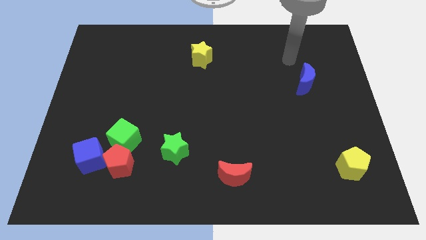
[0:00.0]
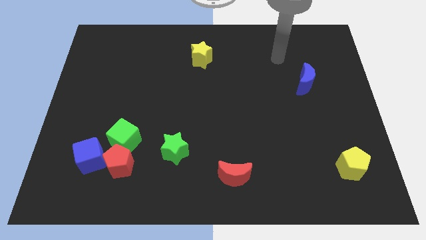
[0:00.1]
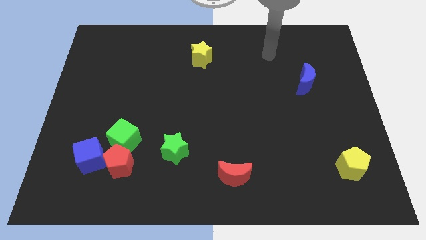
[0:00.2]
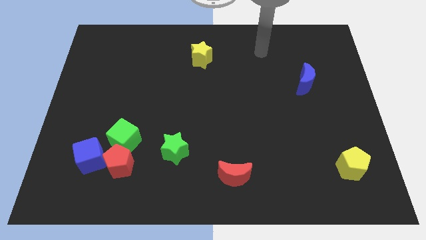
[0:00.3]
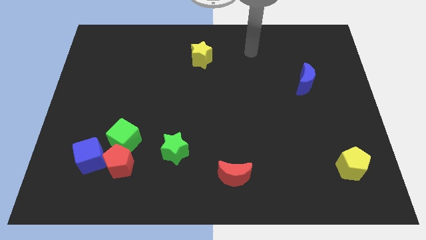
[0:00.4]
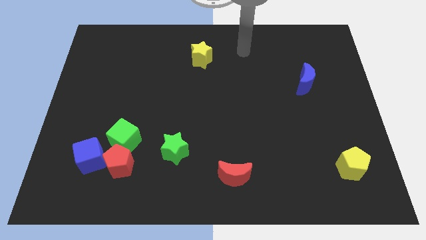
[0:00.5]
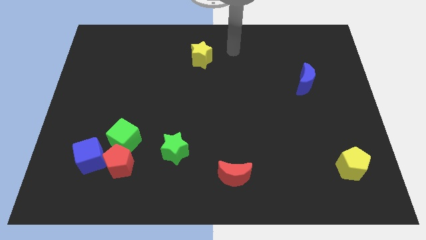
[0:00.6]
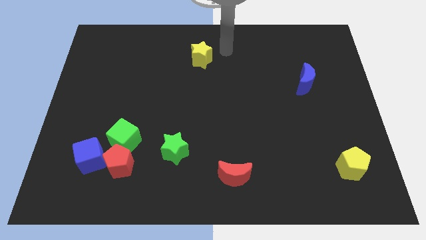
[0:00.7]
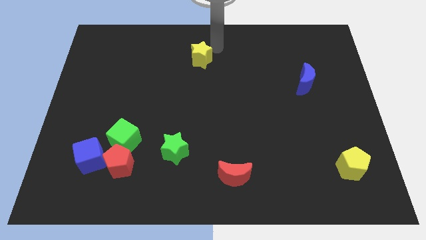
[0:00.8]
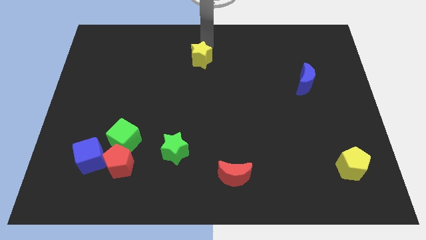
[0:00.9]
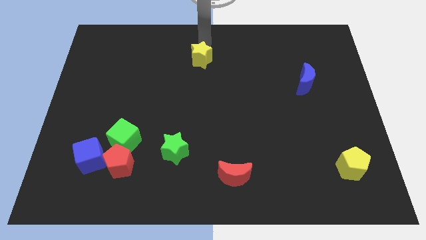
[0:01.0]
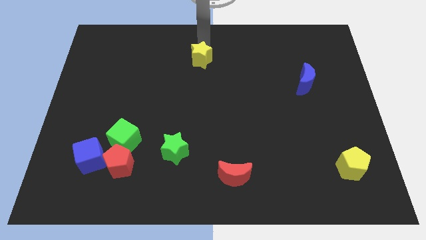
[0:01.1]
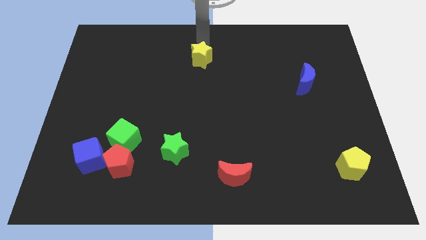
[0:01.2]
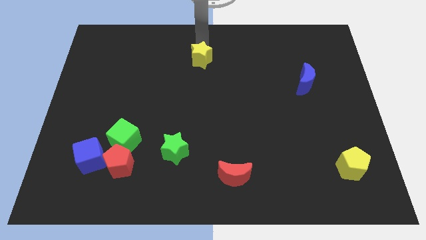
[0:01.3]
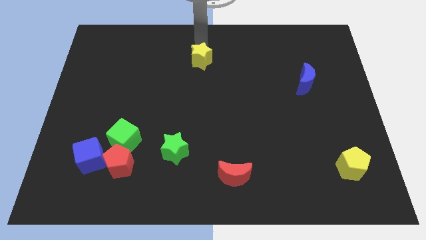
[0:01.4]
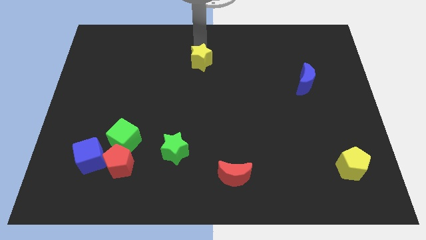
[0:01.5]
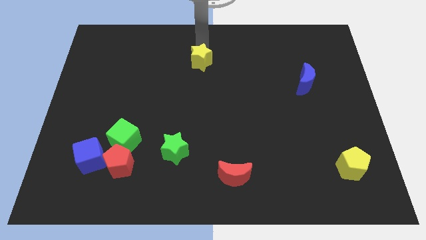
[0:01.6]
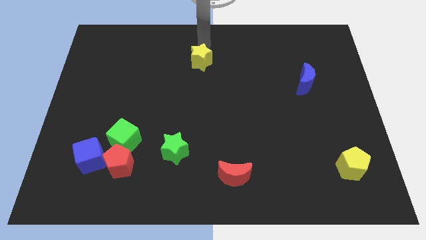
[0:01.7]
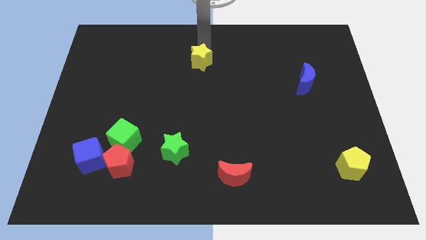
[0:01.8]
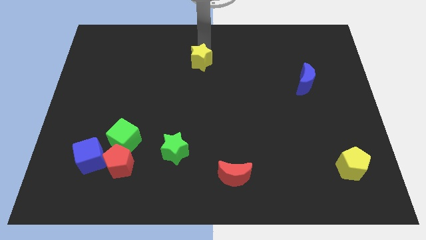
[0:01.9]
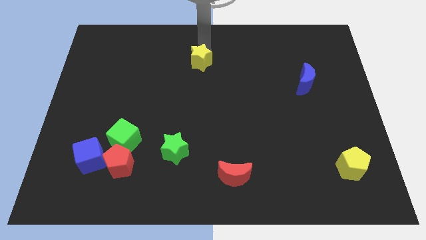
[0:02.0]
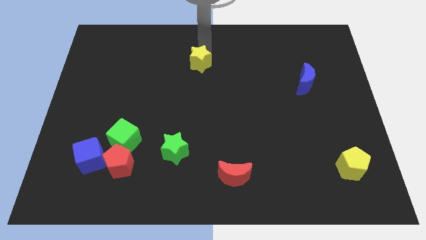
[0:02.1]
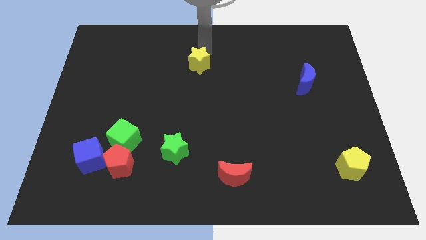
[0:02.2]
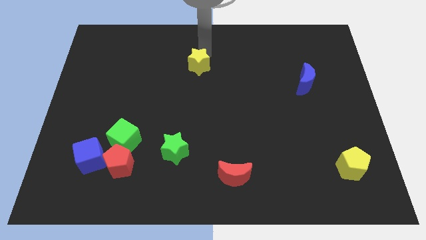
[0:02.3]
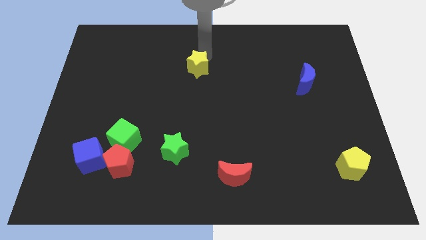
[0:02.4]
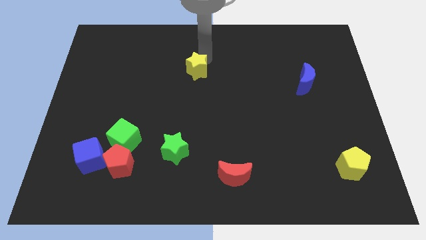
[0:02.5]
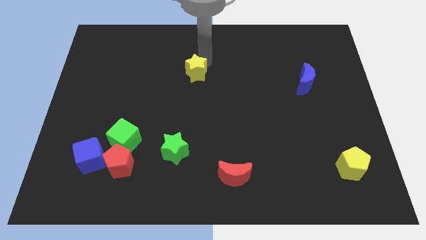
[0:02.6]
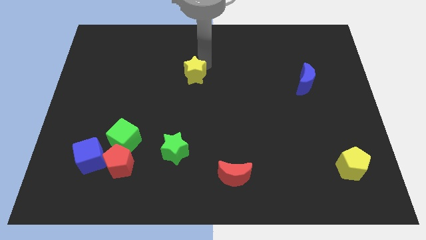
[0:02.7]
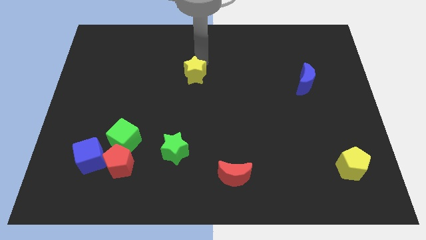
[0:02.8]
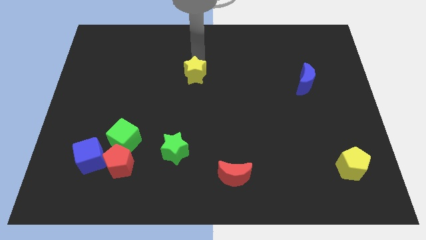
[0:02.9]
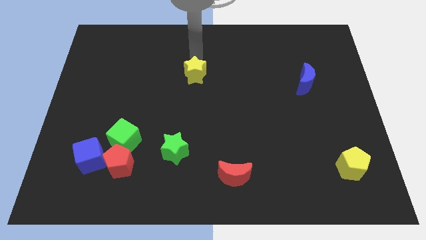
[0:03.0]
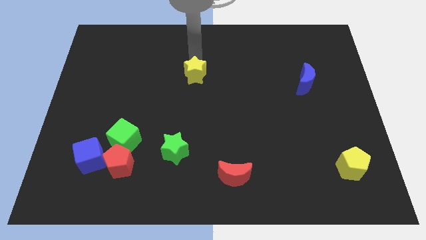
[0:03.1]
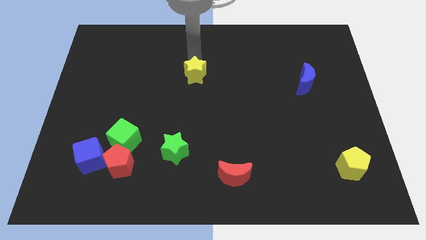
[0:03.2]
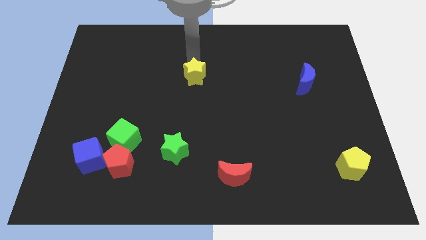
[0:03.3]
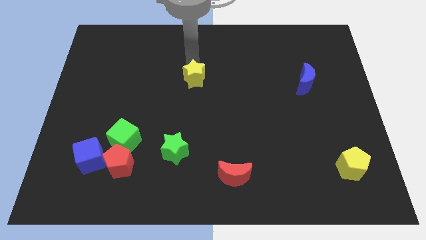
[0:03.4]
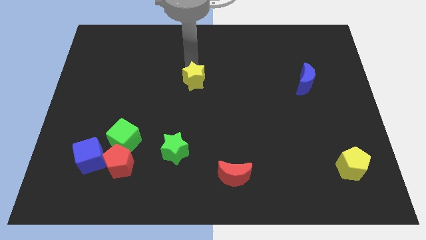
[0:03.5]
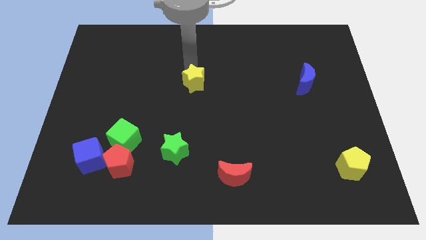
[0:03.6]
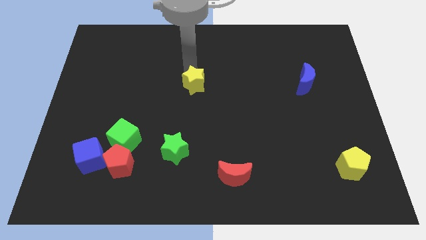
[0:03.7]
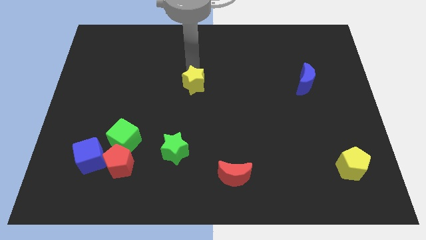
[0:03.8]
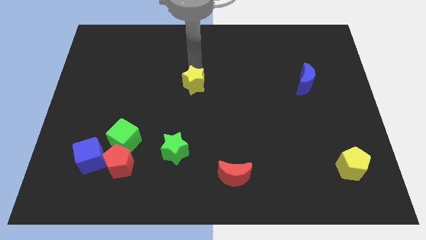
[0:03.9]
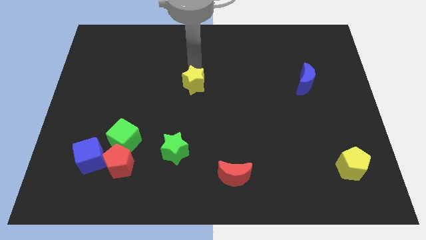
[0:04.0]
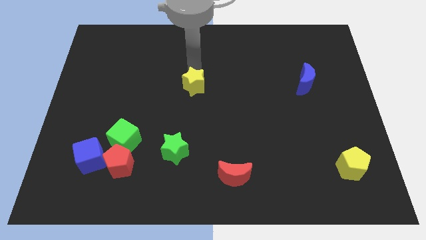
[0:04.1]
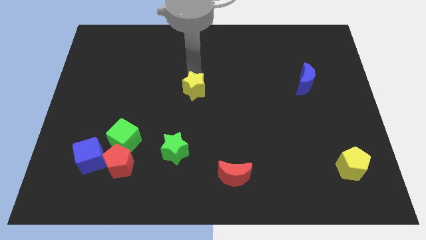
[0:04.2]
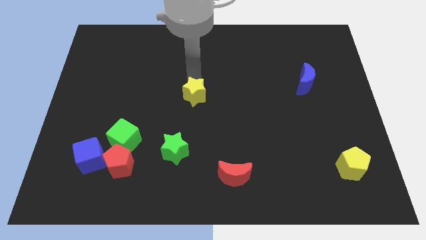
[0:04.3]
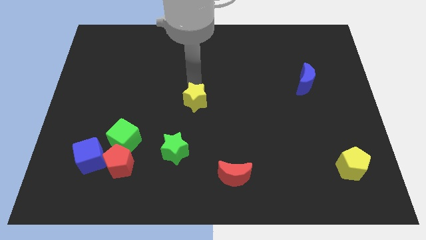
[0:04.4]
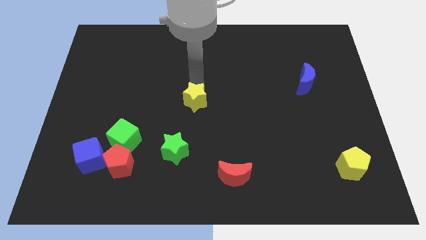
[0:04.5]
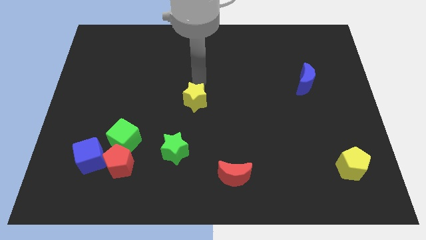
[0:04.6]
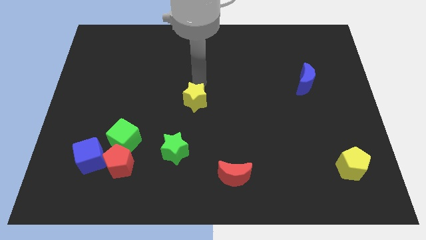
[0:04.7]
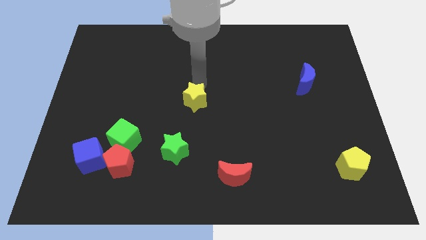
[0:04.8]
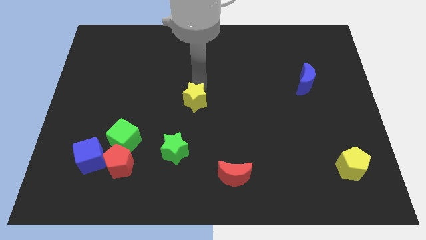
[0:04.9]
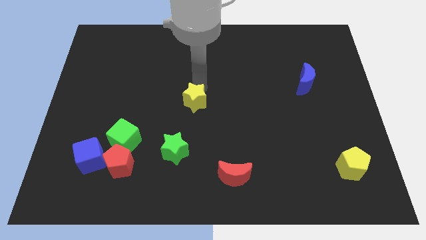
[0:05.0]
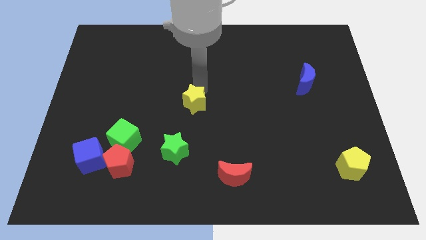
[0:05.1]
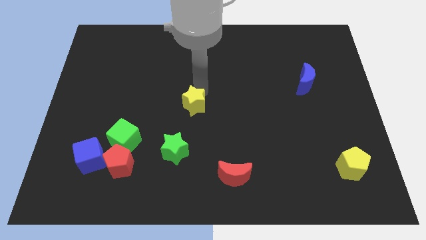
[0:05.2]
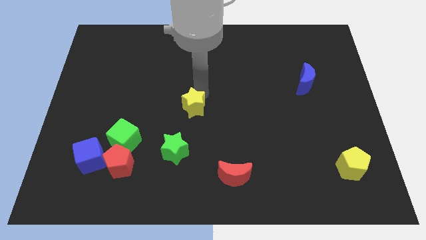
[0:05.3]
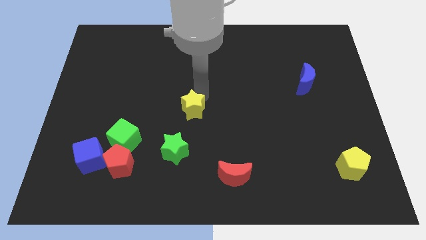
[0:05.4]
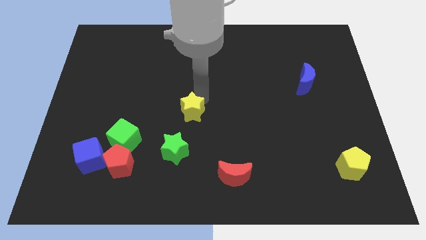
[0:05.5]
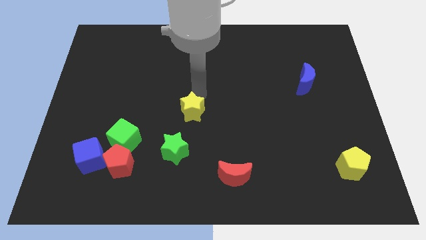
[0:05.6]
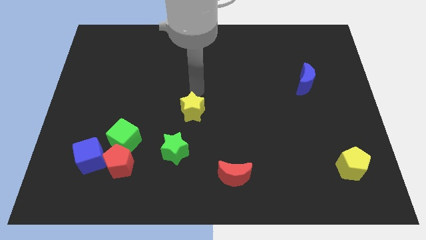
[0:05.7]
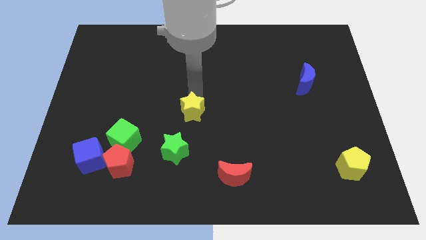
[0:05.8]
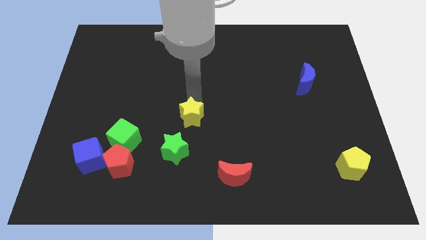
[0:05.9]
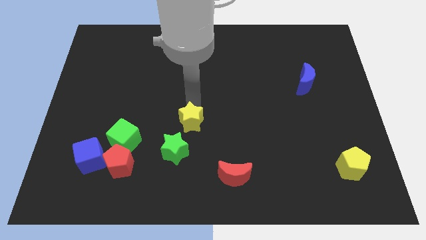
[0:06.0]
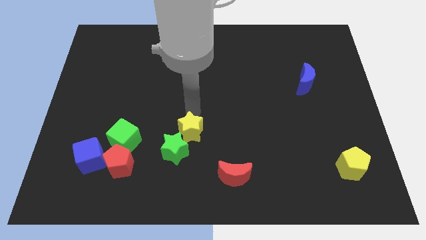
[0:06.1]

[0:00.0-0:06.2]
put the yellow star close to the green star

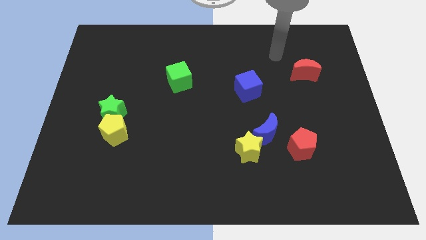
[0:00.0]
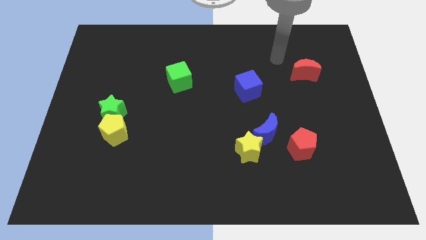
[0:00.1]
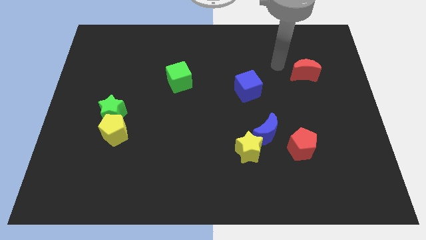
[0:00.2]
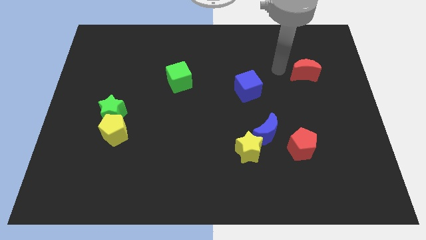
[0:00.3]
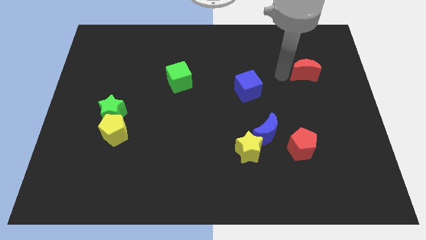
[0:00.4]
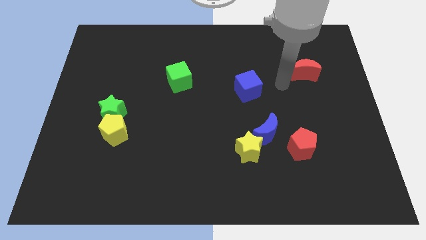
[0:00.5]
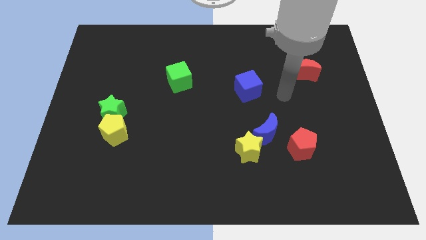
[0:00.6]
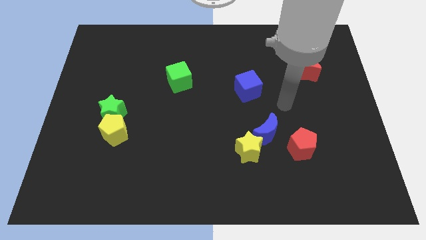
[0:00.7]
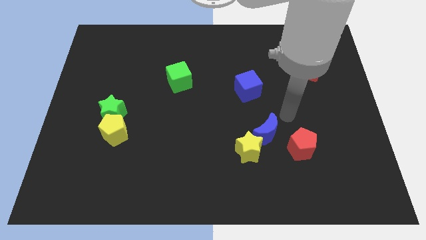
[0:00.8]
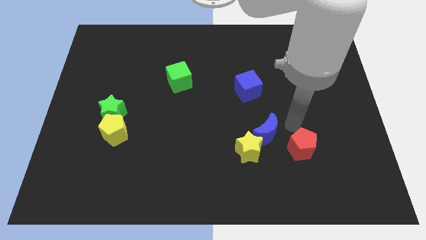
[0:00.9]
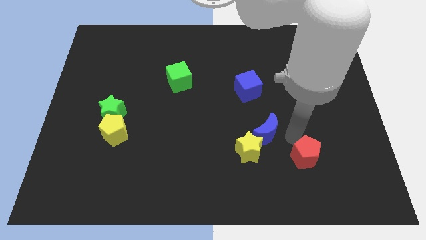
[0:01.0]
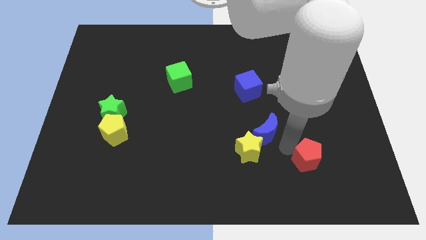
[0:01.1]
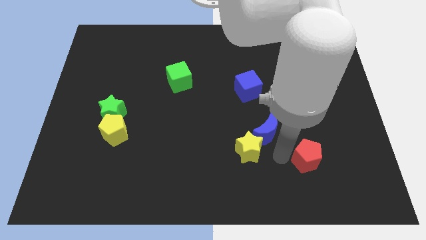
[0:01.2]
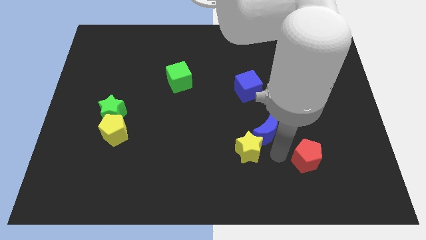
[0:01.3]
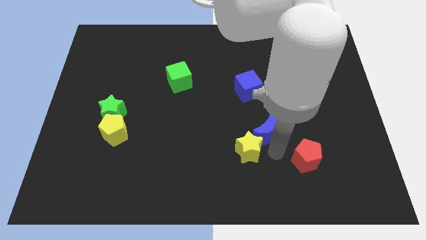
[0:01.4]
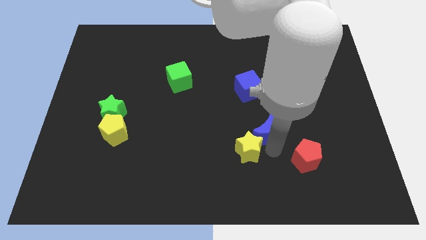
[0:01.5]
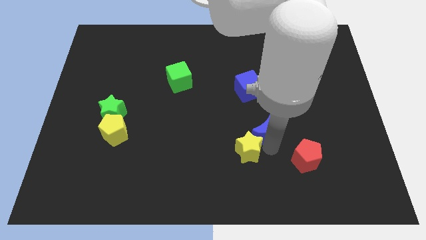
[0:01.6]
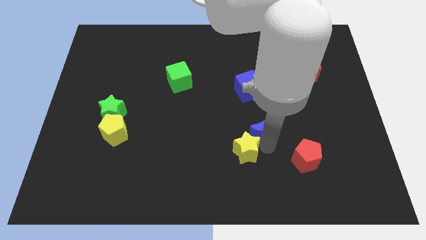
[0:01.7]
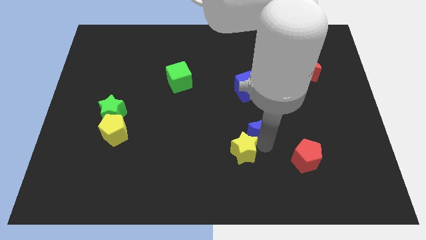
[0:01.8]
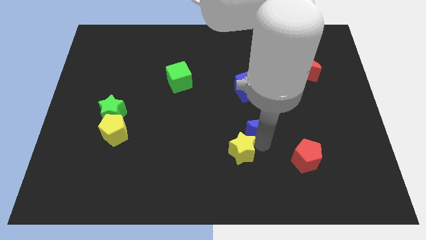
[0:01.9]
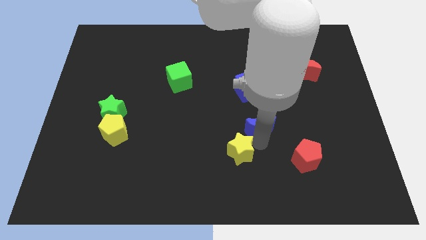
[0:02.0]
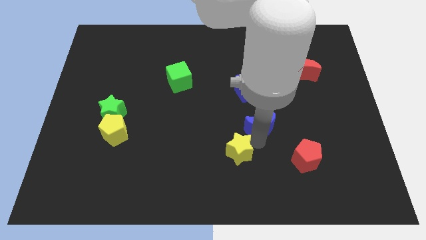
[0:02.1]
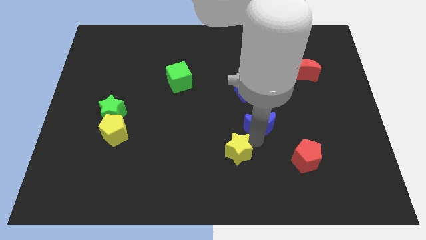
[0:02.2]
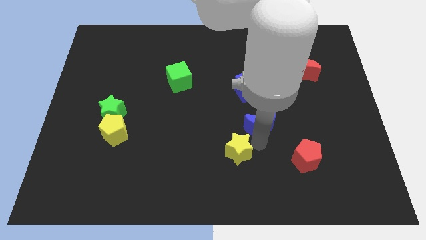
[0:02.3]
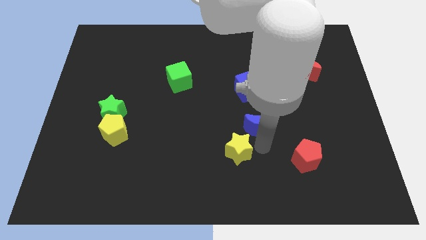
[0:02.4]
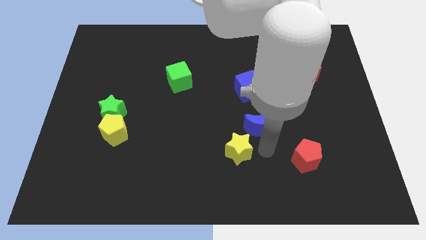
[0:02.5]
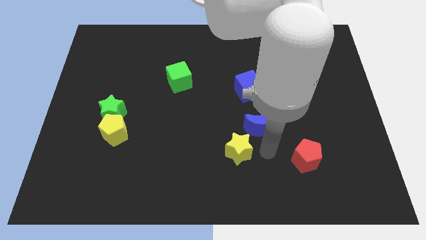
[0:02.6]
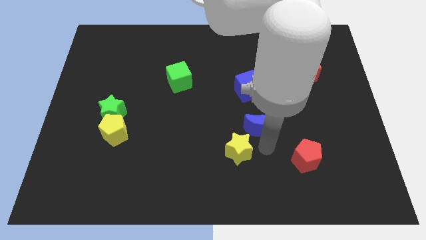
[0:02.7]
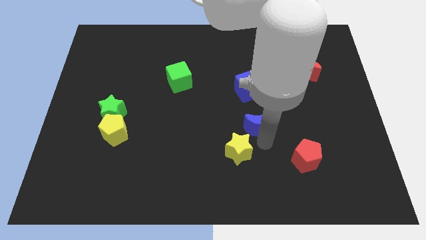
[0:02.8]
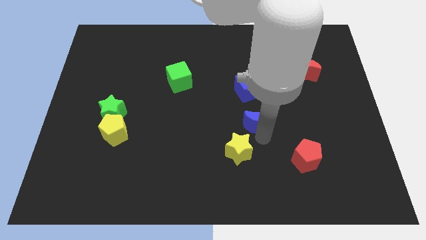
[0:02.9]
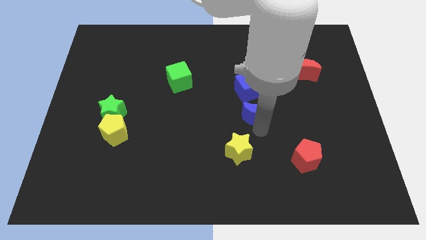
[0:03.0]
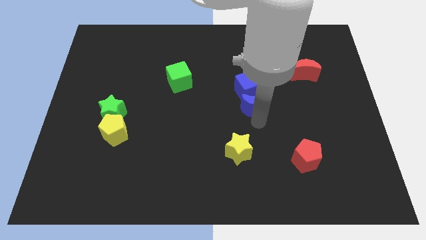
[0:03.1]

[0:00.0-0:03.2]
move the blue moon close to the blue cube
